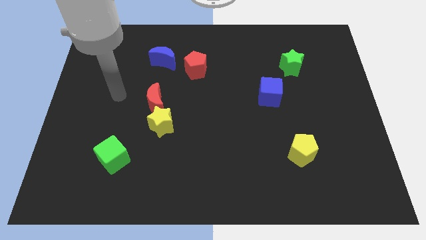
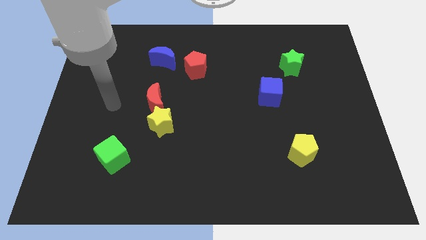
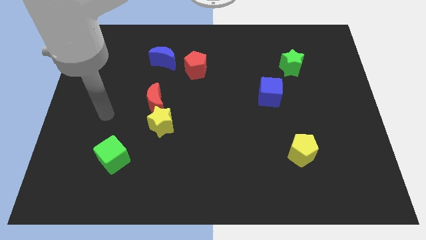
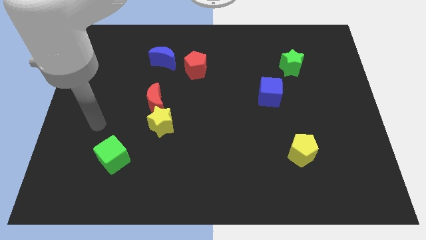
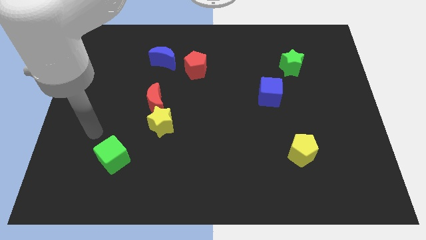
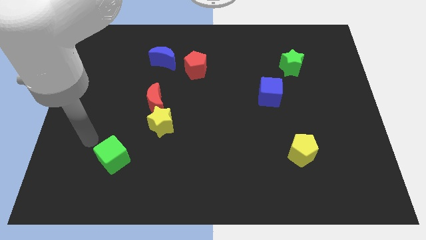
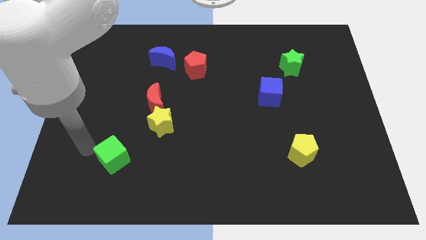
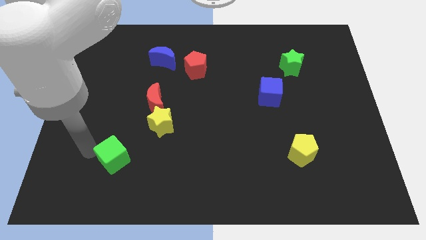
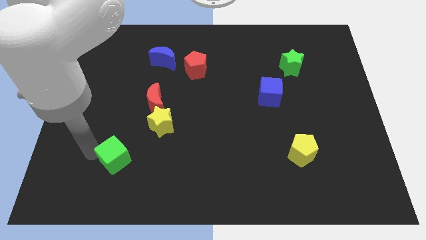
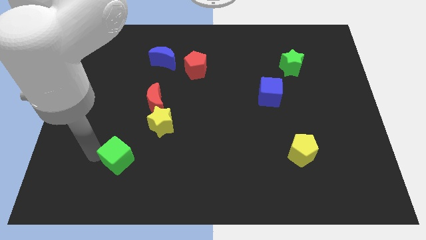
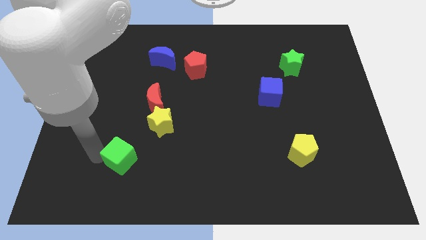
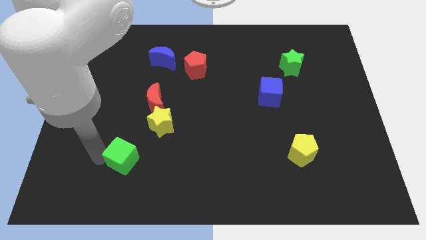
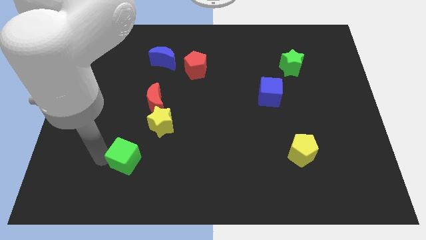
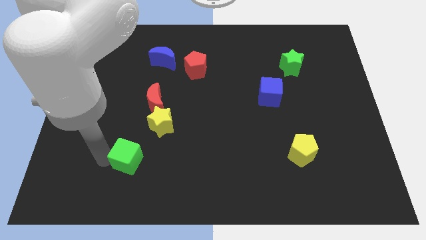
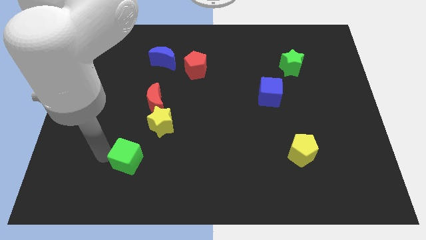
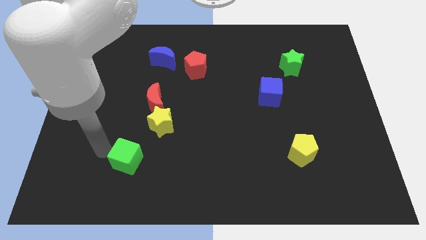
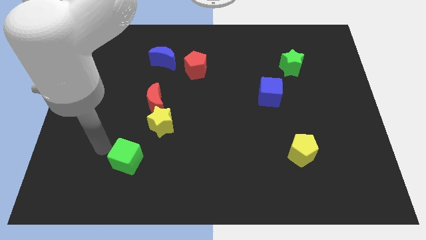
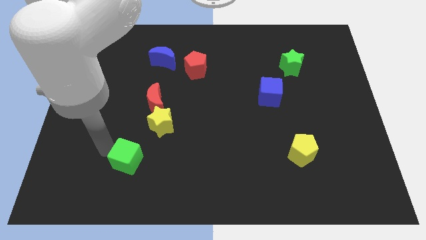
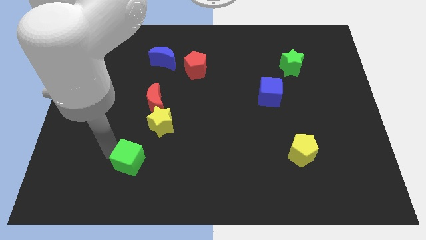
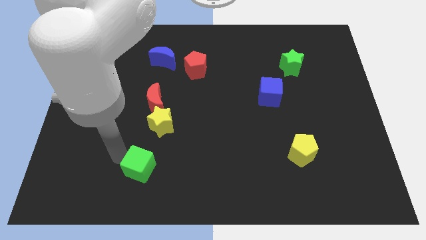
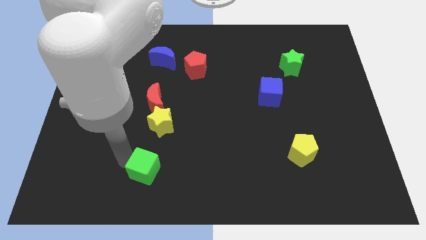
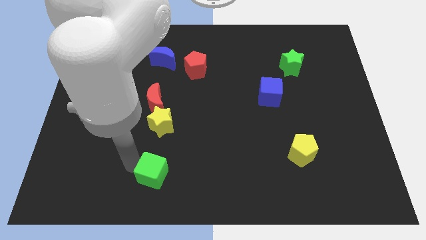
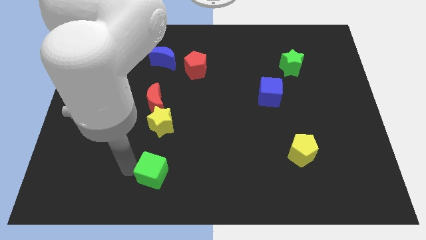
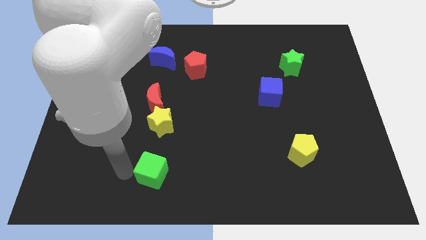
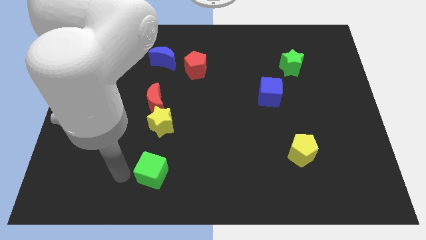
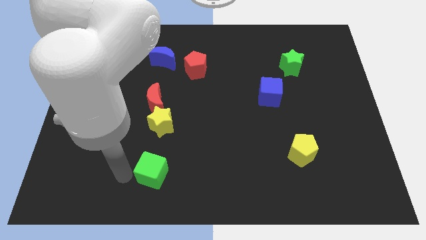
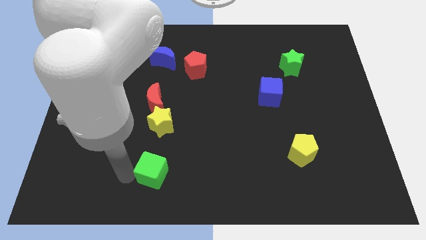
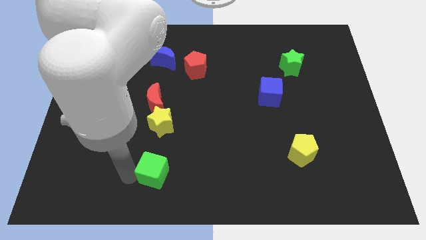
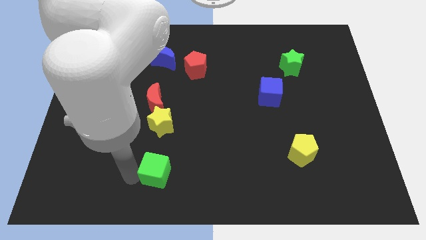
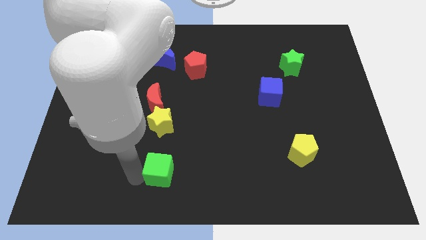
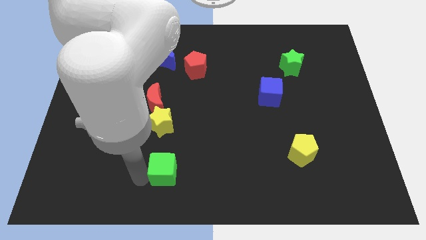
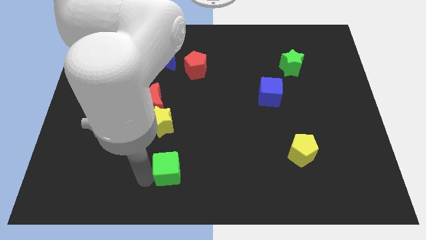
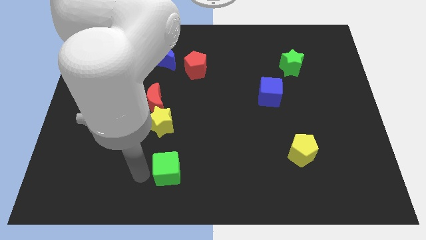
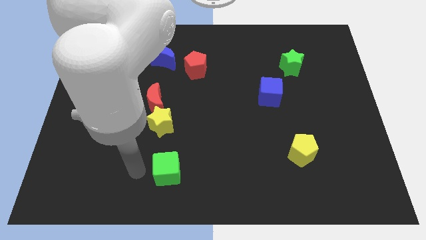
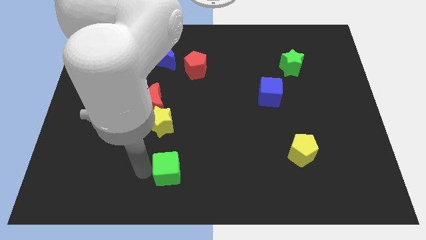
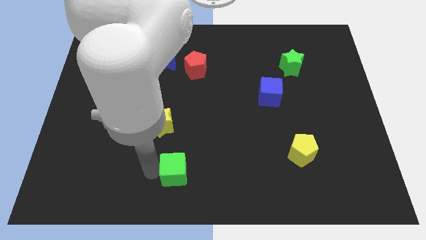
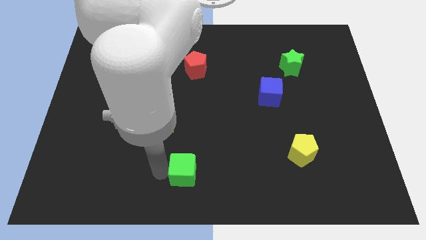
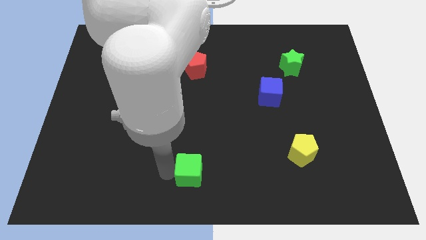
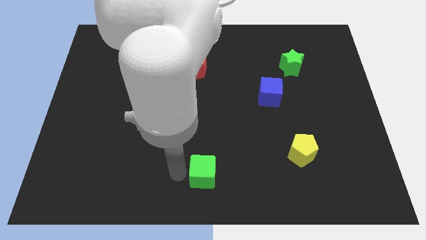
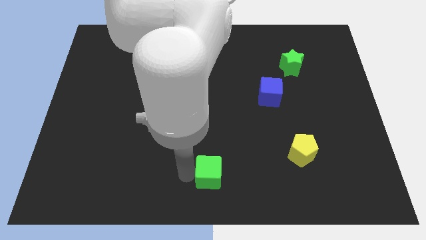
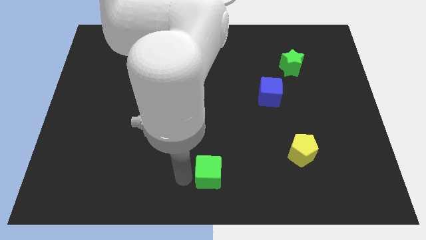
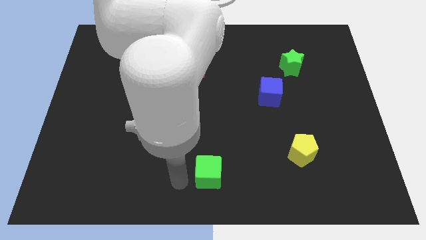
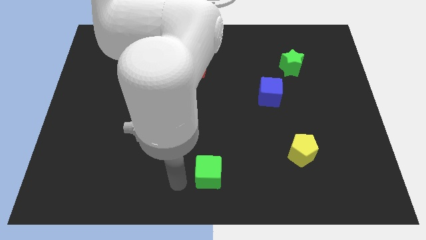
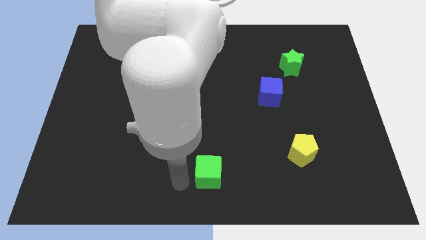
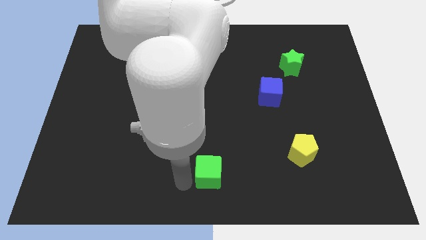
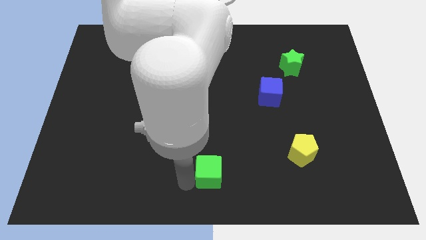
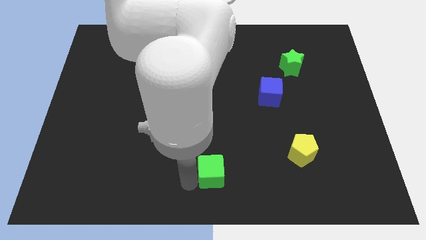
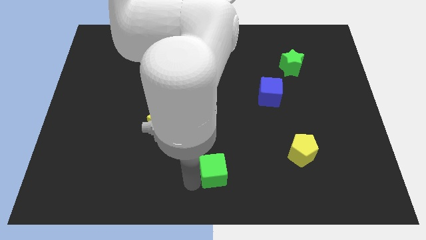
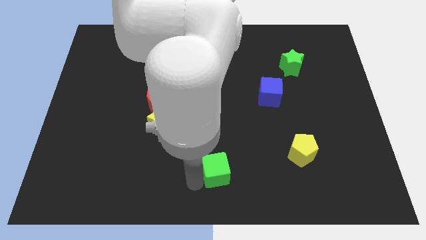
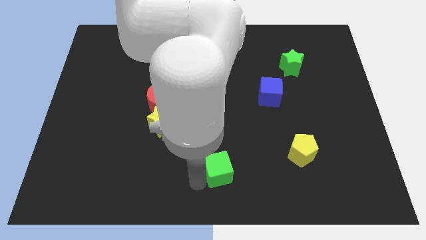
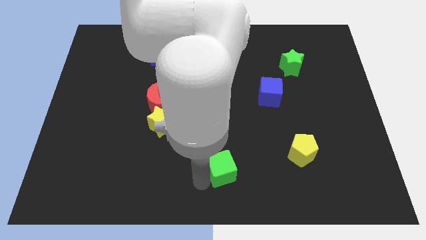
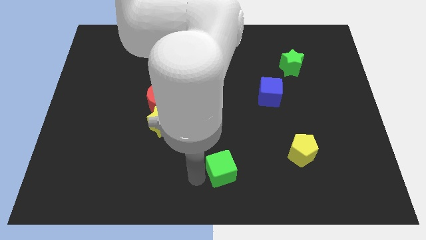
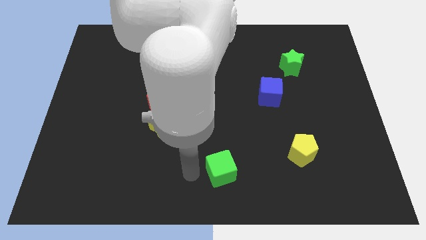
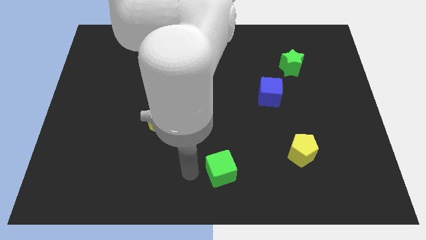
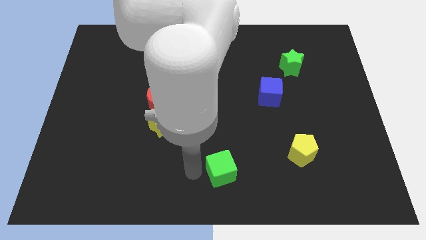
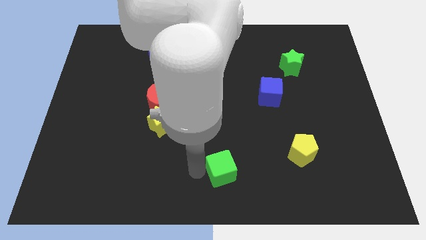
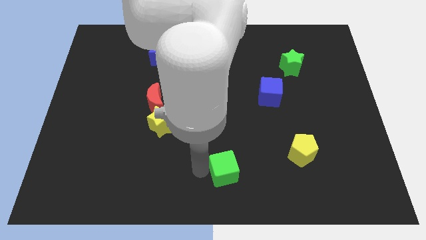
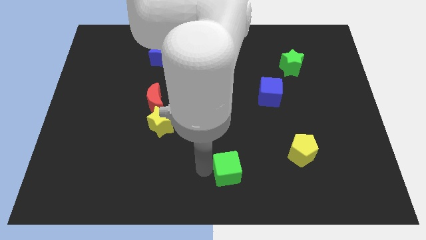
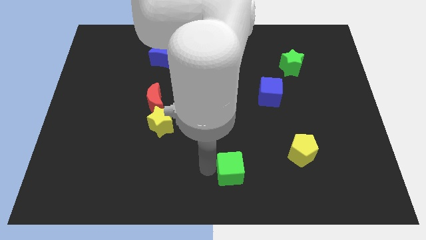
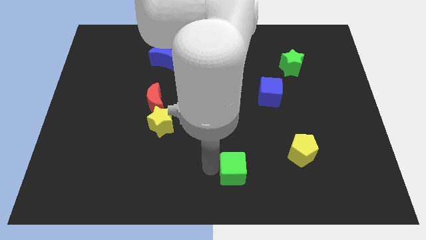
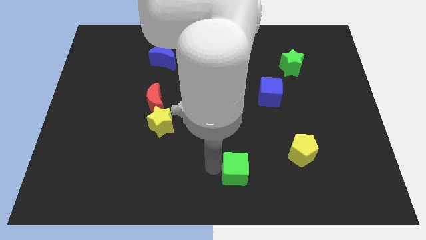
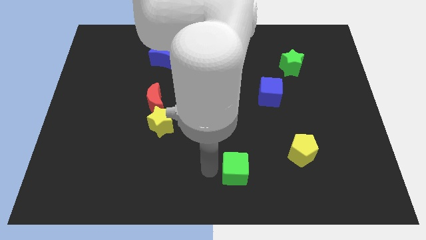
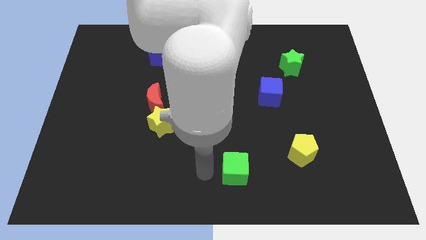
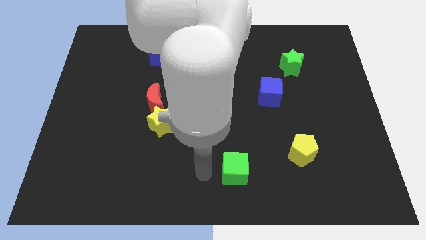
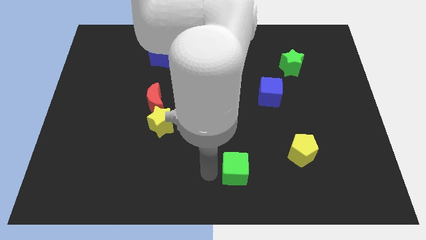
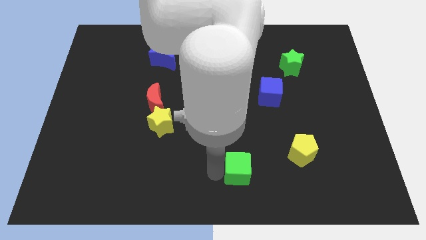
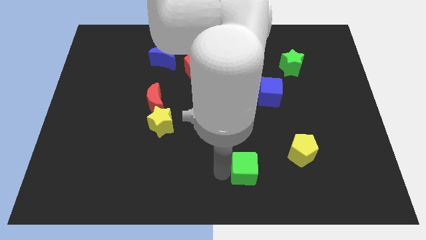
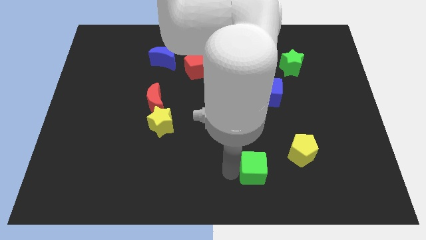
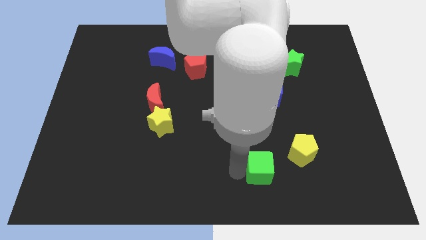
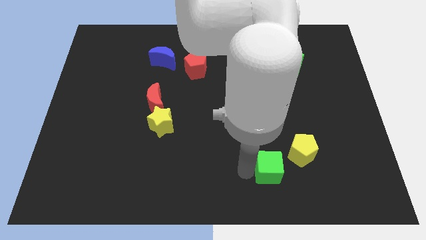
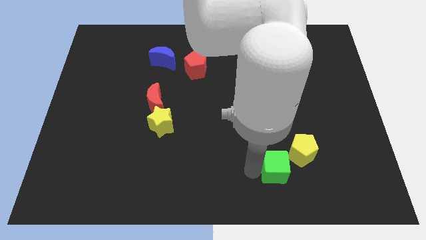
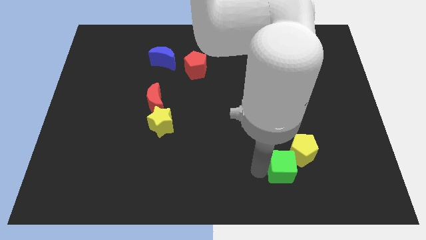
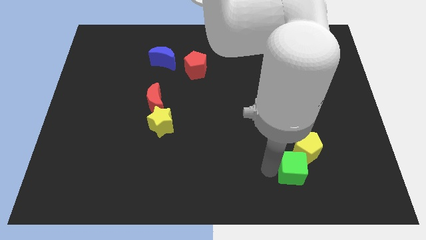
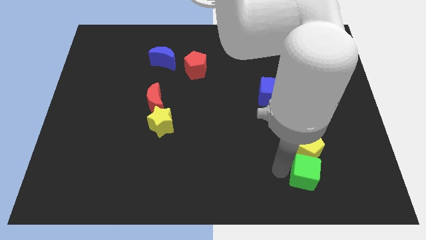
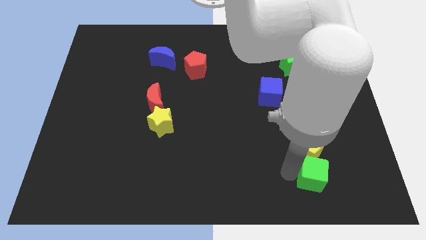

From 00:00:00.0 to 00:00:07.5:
move the green cube to the bottom right side of the yellow pentagon
